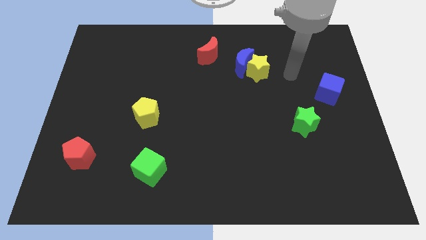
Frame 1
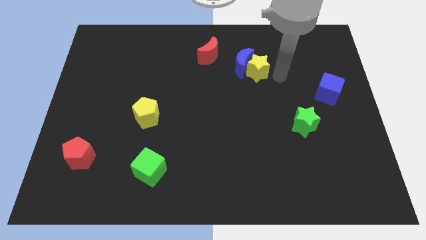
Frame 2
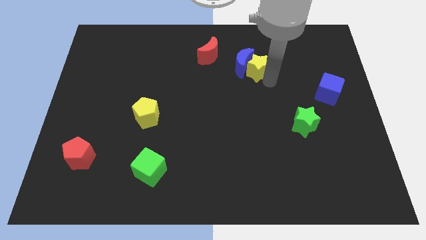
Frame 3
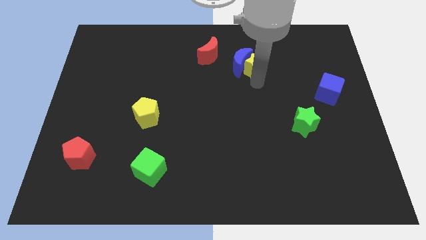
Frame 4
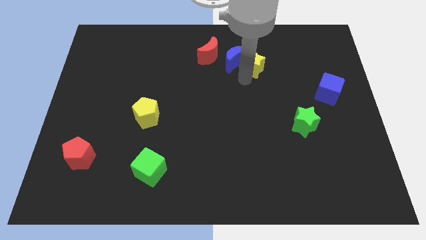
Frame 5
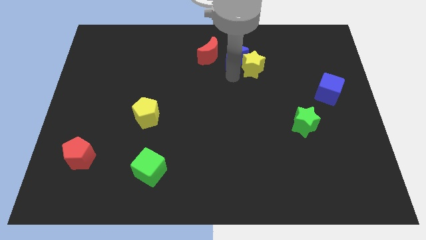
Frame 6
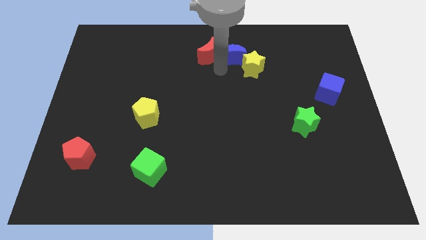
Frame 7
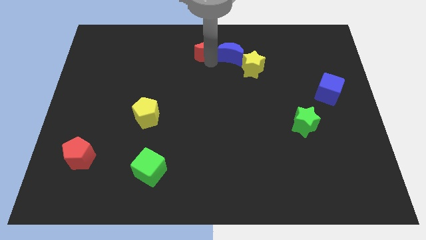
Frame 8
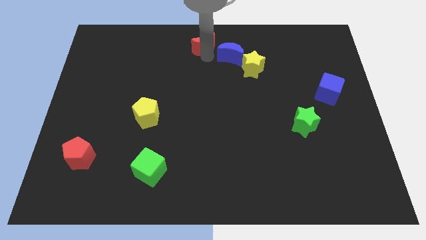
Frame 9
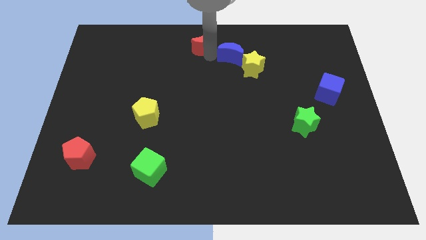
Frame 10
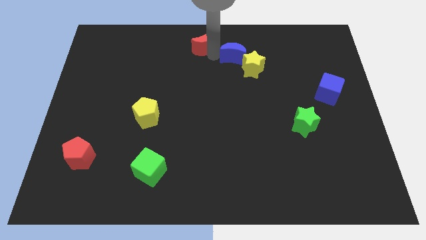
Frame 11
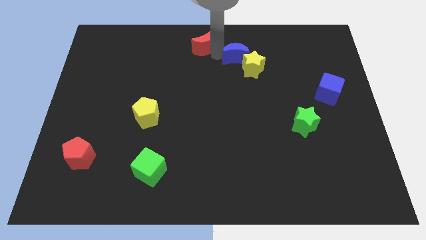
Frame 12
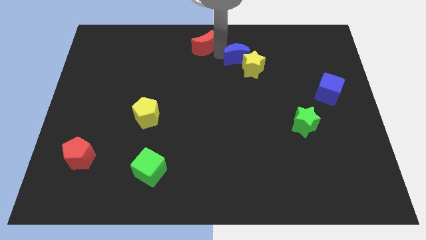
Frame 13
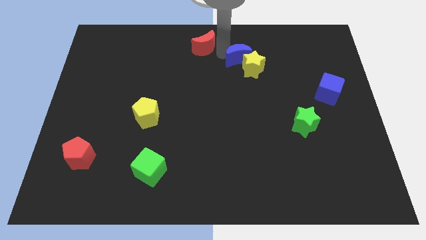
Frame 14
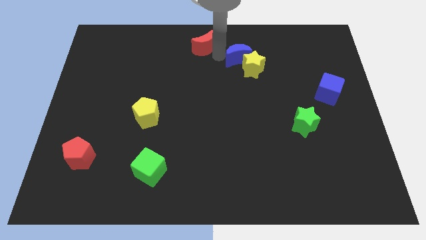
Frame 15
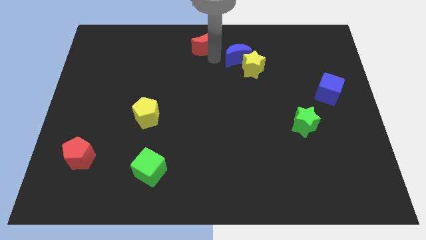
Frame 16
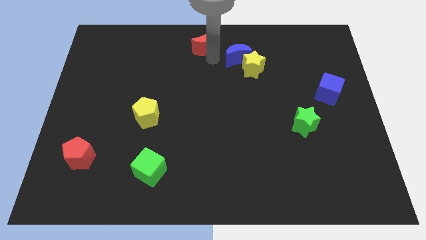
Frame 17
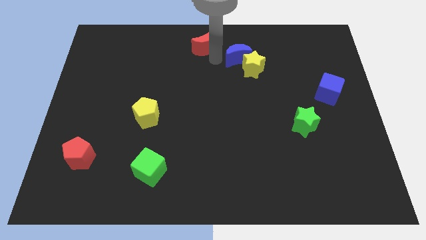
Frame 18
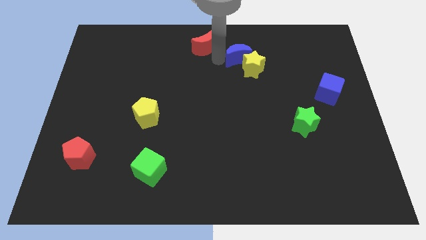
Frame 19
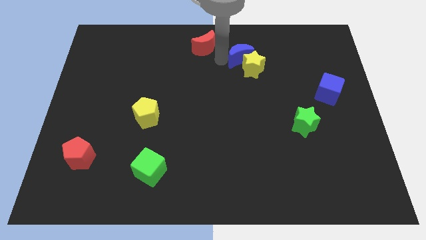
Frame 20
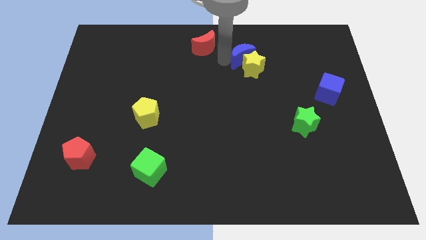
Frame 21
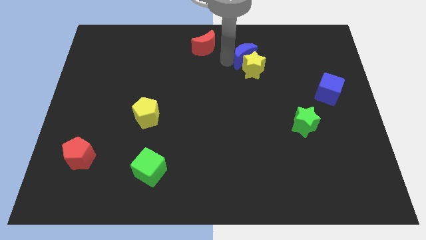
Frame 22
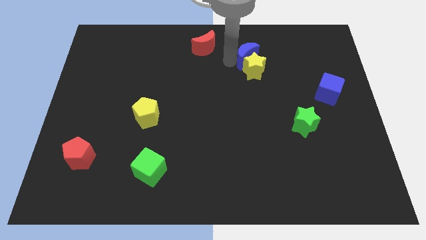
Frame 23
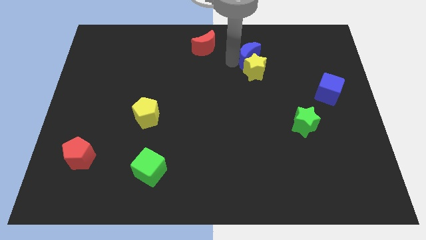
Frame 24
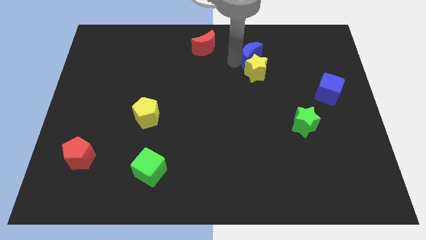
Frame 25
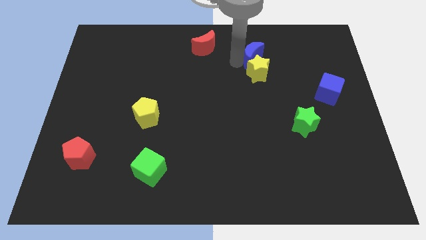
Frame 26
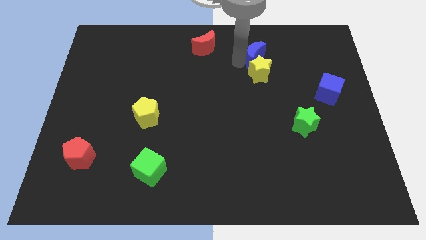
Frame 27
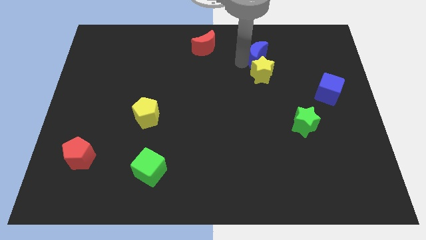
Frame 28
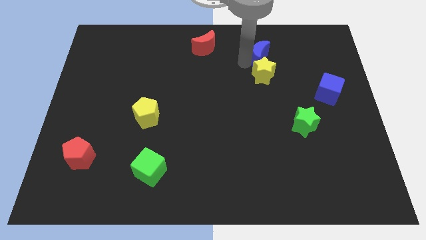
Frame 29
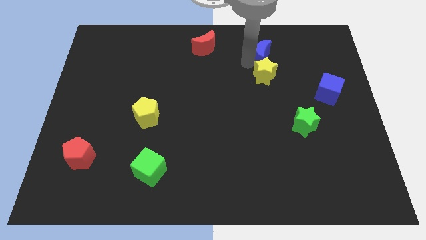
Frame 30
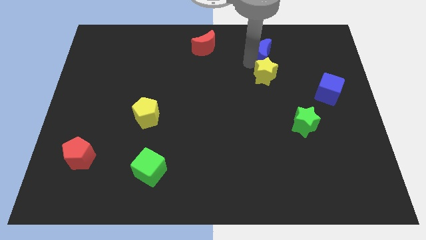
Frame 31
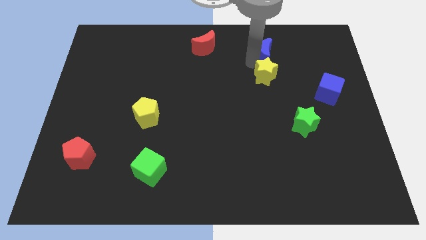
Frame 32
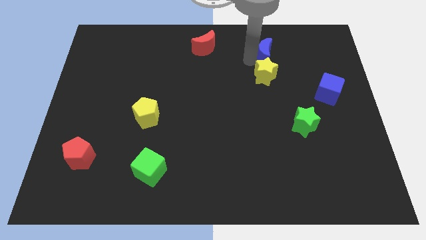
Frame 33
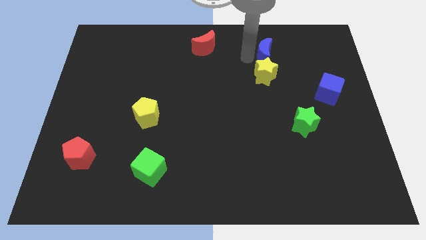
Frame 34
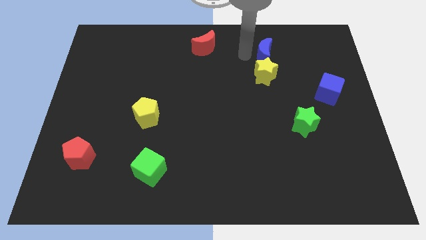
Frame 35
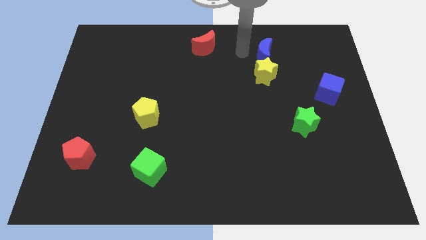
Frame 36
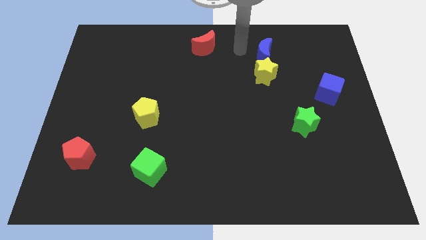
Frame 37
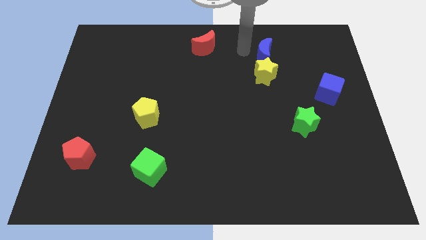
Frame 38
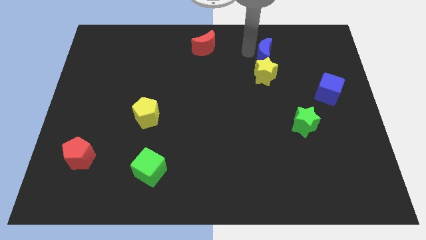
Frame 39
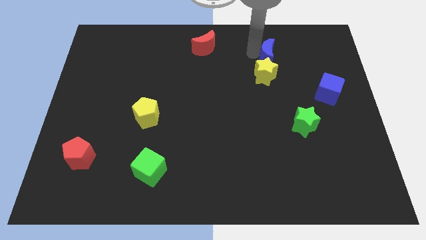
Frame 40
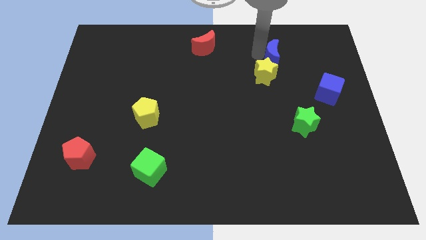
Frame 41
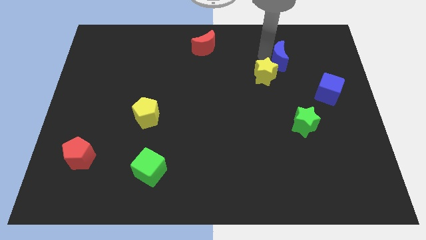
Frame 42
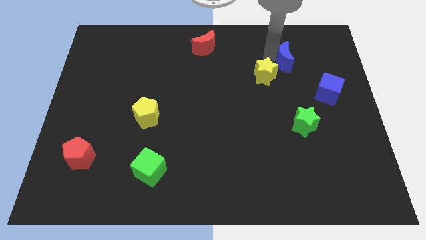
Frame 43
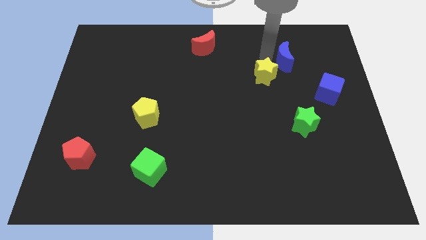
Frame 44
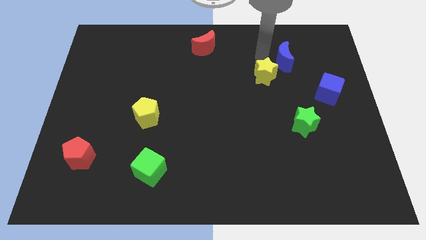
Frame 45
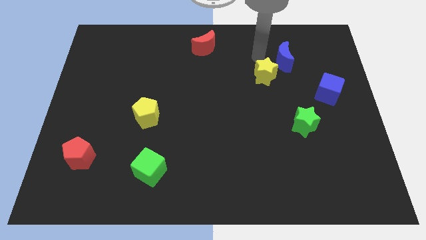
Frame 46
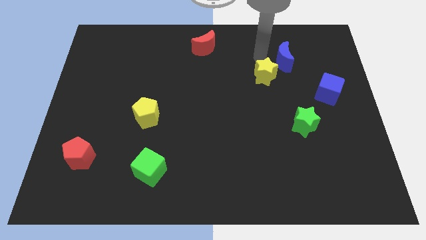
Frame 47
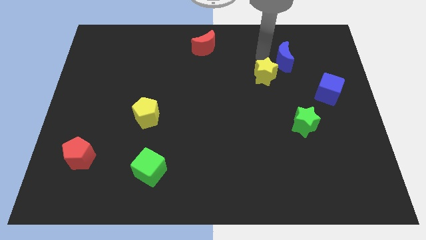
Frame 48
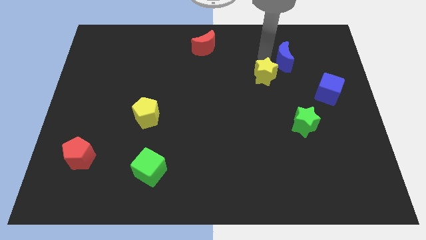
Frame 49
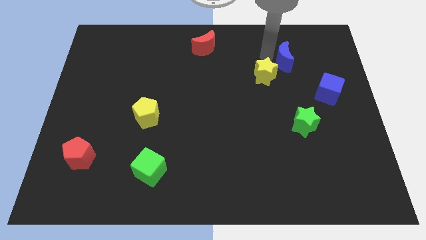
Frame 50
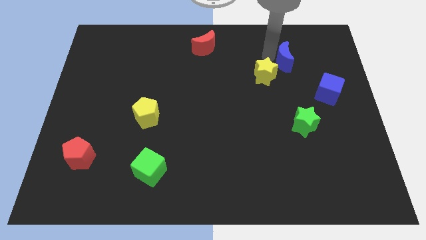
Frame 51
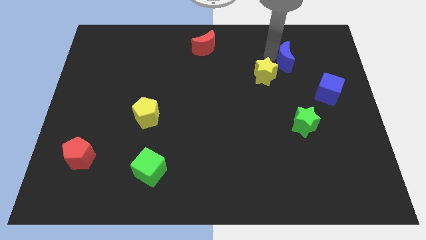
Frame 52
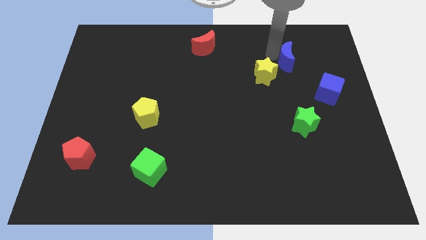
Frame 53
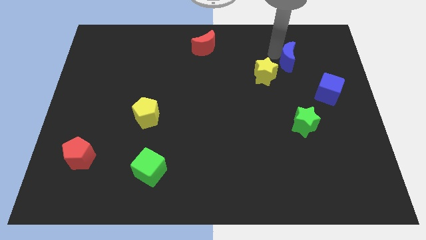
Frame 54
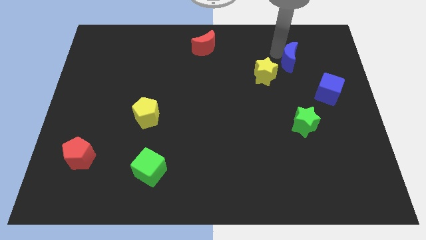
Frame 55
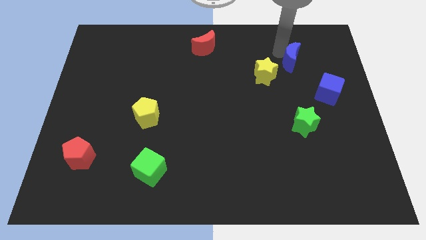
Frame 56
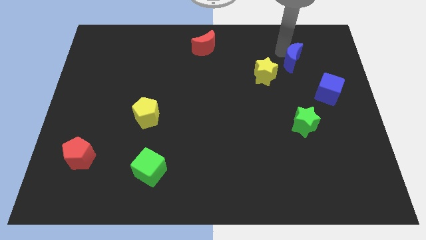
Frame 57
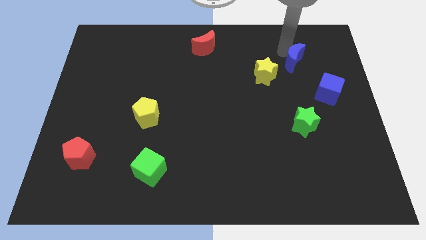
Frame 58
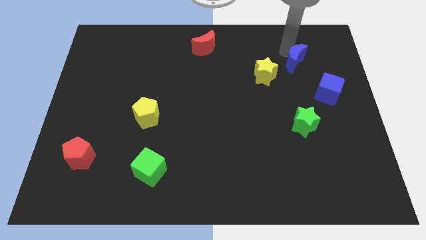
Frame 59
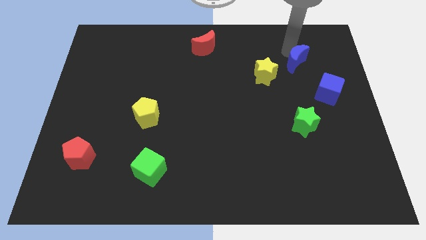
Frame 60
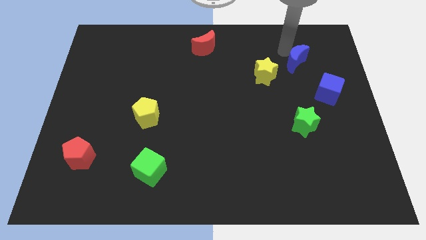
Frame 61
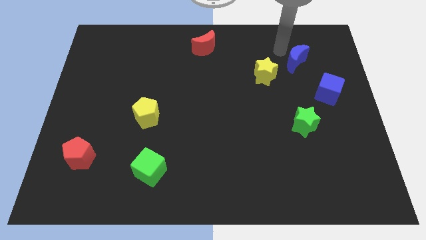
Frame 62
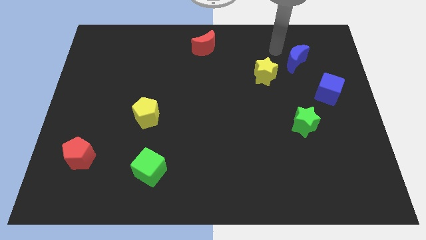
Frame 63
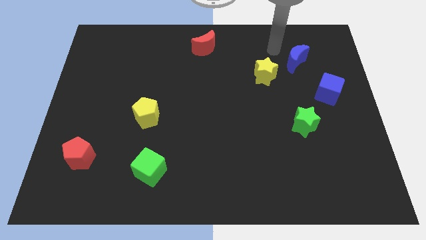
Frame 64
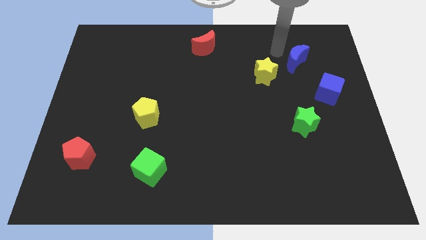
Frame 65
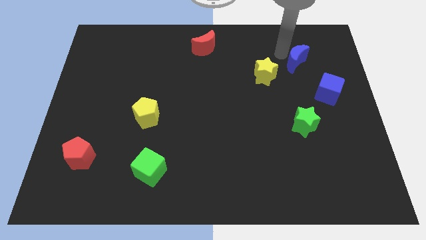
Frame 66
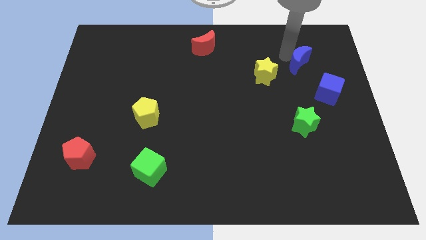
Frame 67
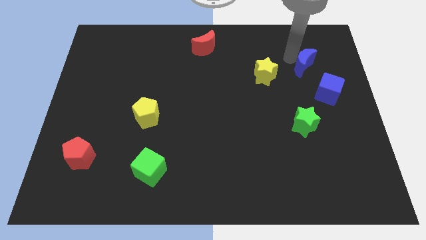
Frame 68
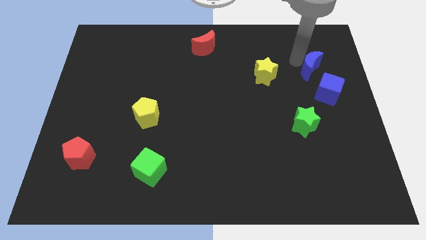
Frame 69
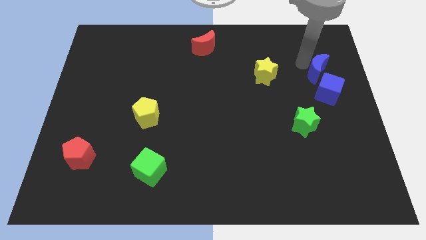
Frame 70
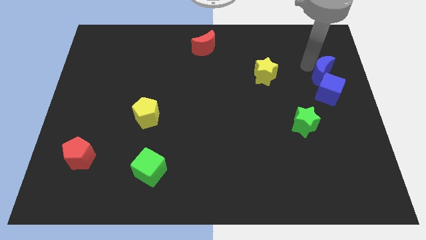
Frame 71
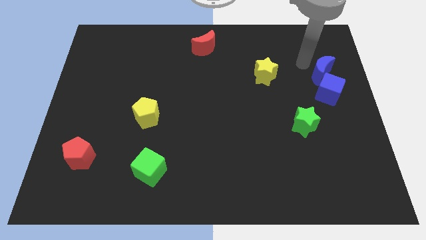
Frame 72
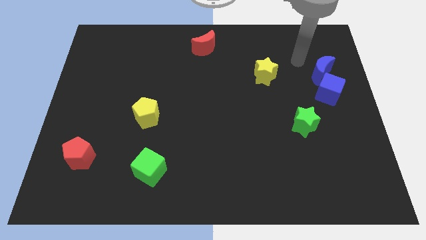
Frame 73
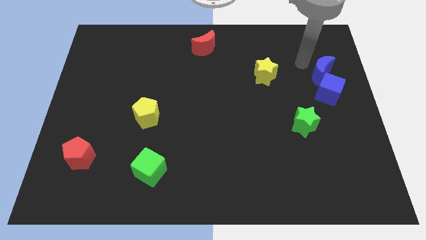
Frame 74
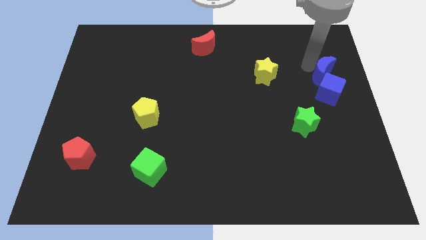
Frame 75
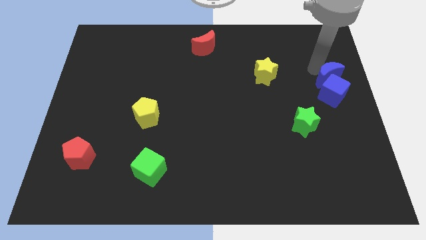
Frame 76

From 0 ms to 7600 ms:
put the blue moon to the center right
